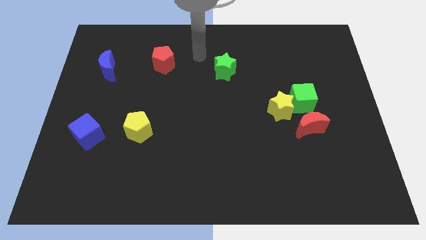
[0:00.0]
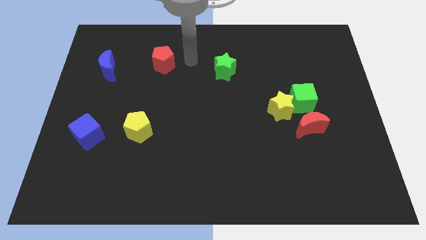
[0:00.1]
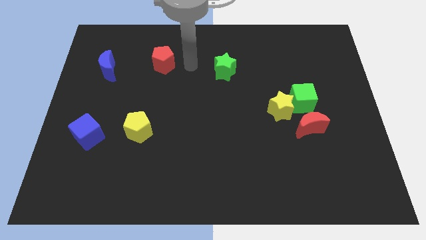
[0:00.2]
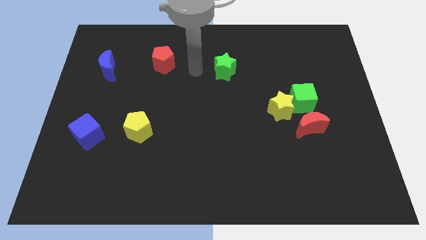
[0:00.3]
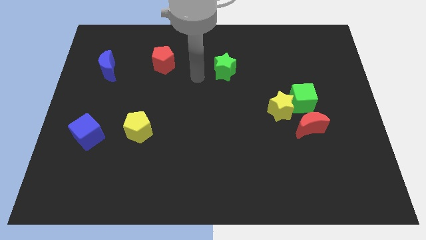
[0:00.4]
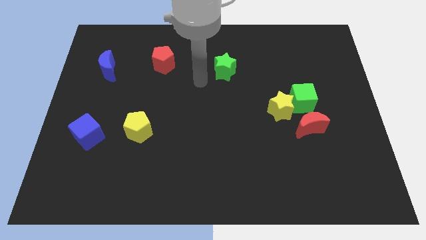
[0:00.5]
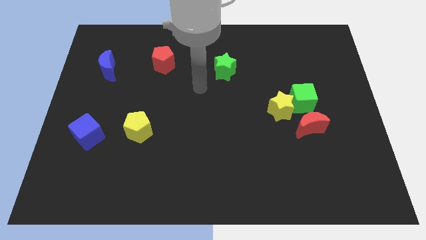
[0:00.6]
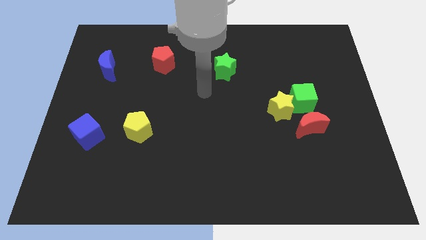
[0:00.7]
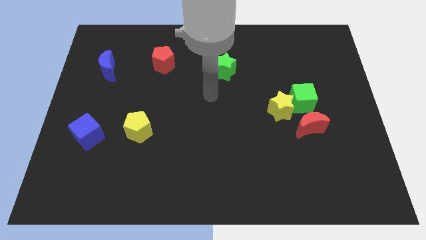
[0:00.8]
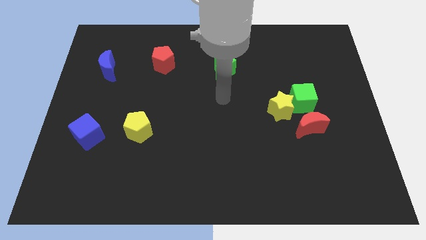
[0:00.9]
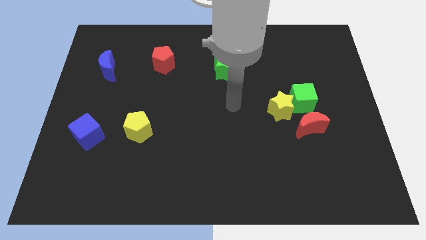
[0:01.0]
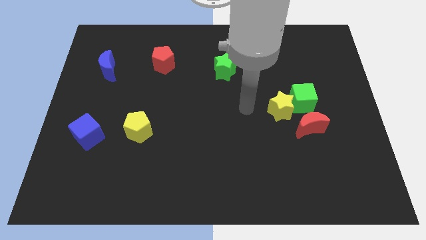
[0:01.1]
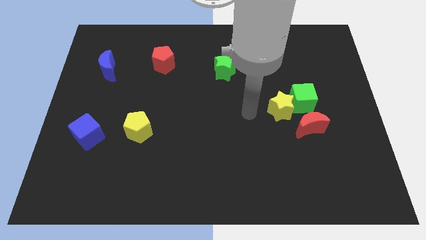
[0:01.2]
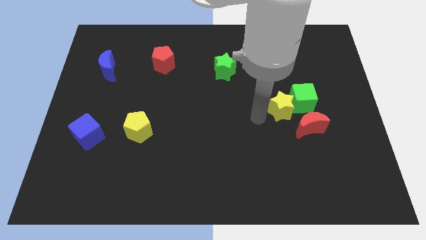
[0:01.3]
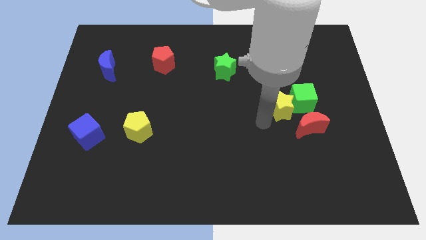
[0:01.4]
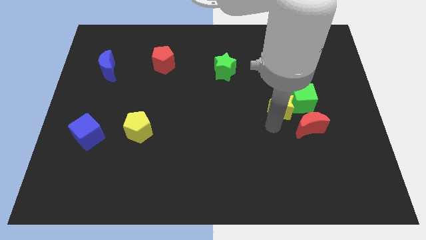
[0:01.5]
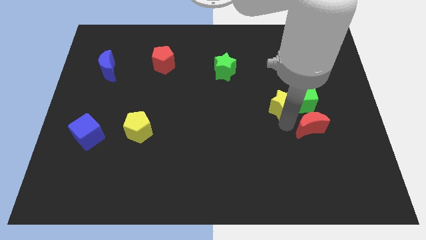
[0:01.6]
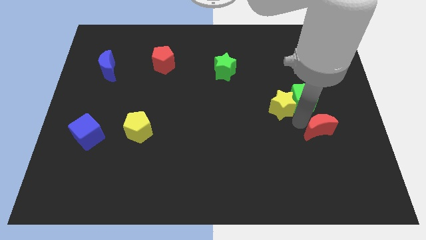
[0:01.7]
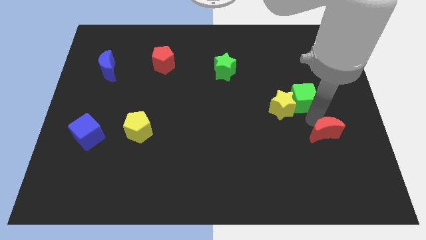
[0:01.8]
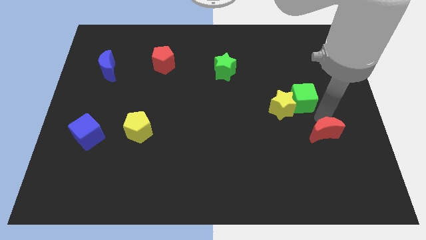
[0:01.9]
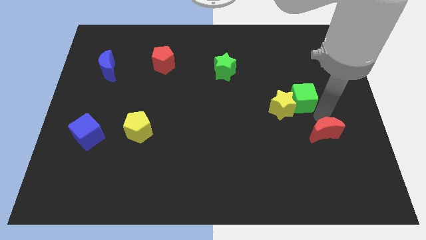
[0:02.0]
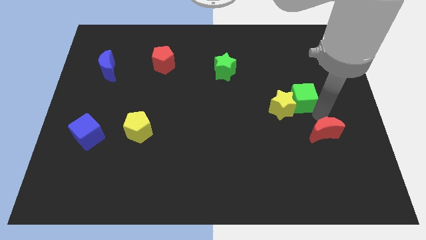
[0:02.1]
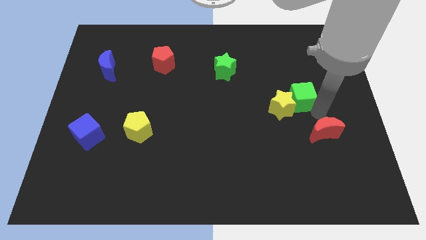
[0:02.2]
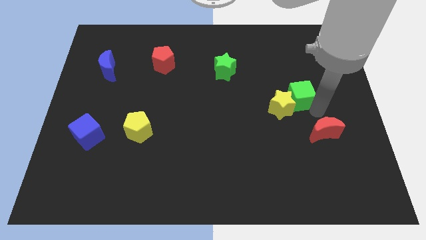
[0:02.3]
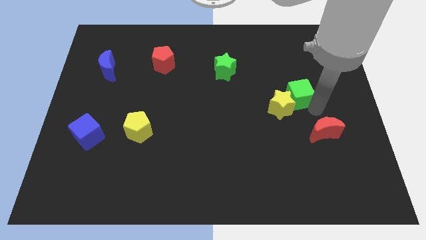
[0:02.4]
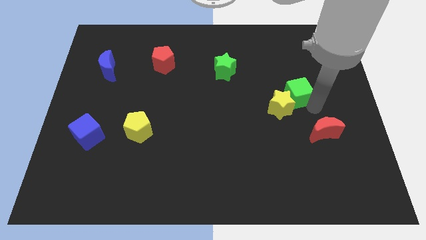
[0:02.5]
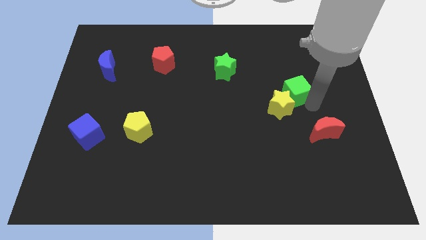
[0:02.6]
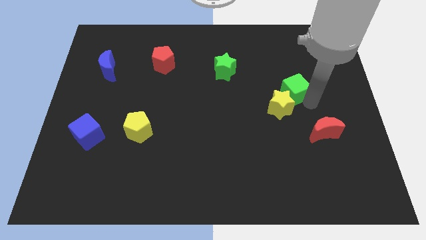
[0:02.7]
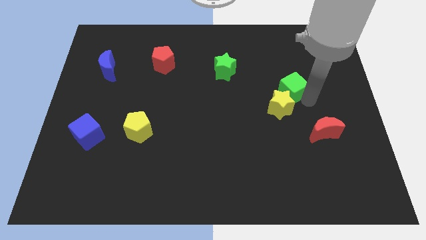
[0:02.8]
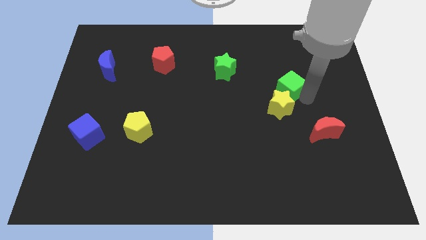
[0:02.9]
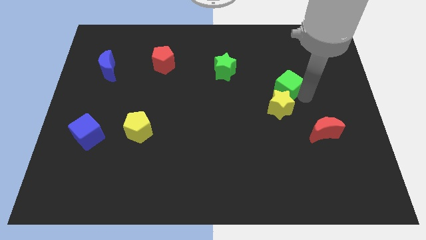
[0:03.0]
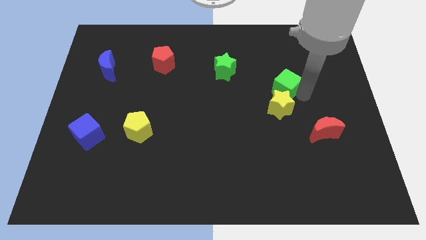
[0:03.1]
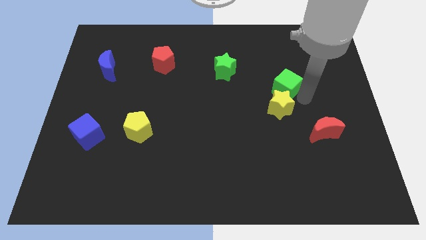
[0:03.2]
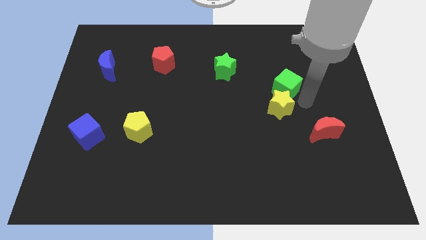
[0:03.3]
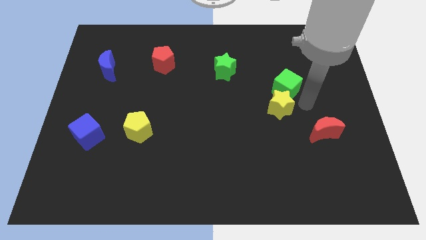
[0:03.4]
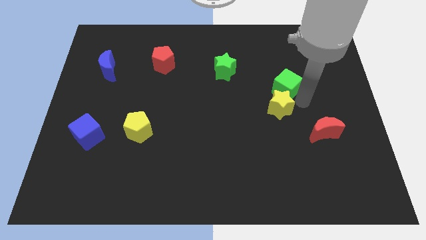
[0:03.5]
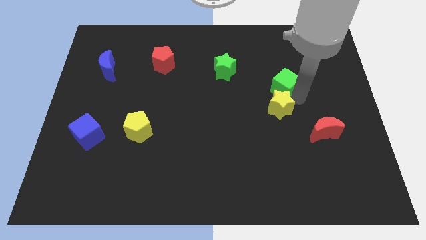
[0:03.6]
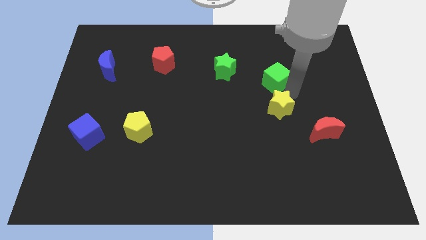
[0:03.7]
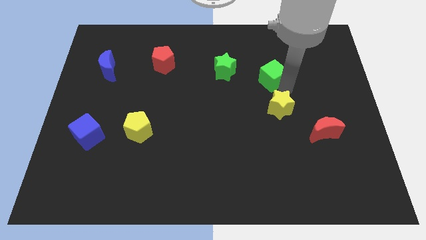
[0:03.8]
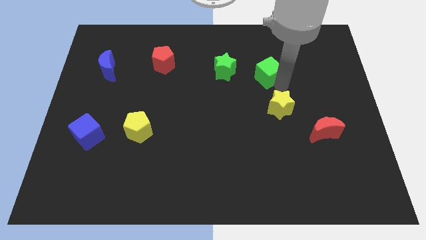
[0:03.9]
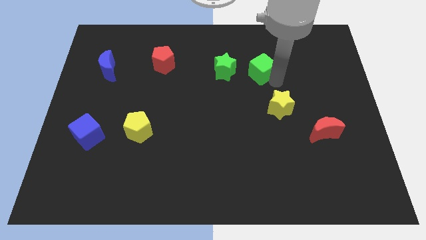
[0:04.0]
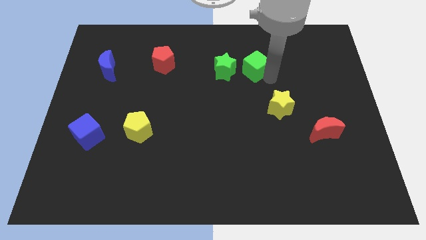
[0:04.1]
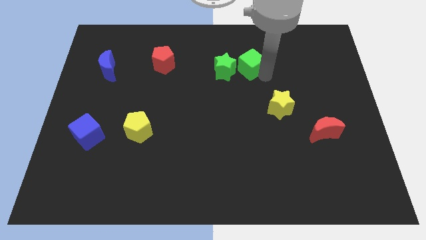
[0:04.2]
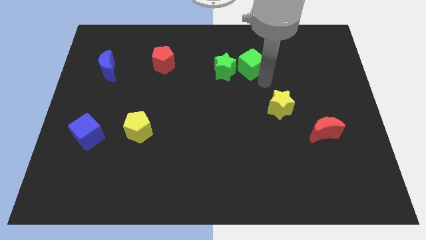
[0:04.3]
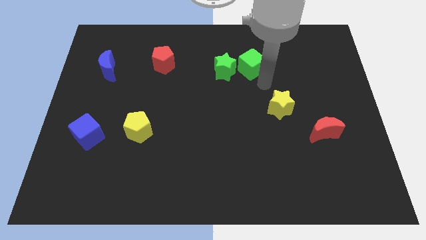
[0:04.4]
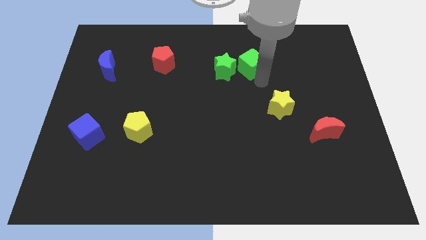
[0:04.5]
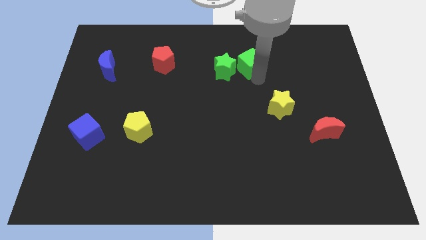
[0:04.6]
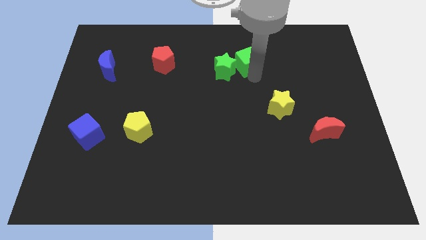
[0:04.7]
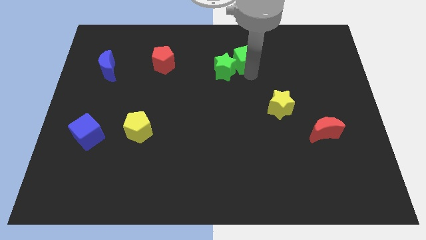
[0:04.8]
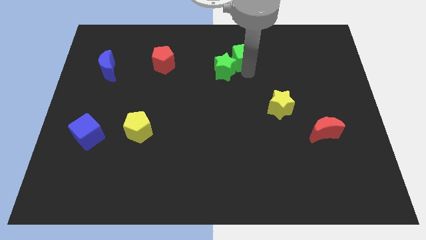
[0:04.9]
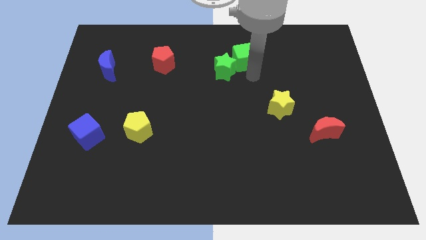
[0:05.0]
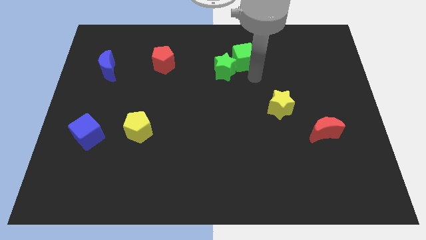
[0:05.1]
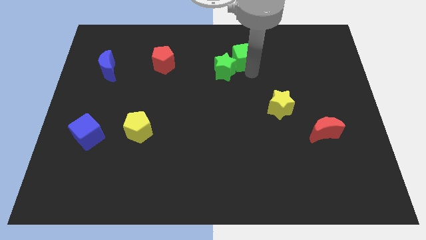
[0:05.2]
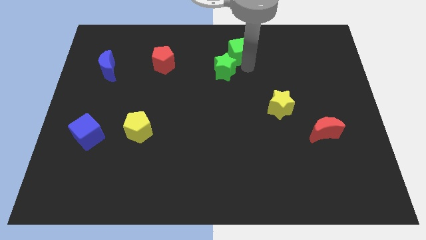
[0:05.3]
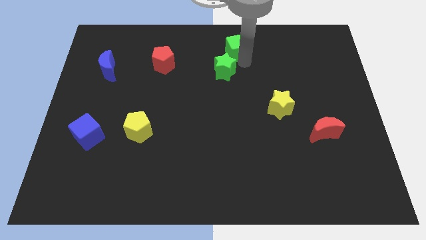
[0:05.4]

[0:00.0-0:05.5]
push the green cube to the top

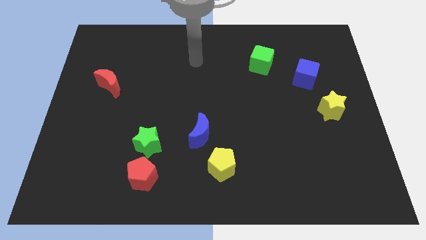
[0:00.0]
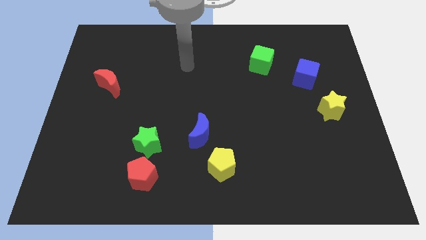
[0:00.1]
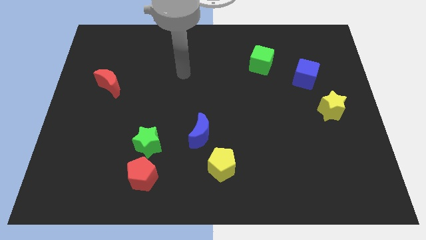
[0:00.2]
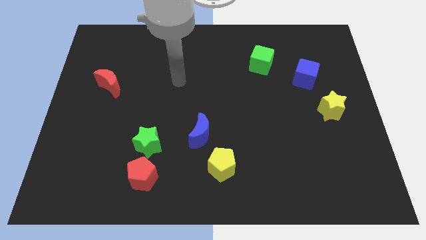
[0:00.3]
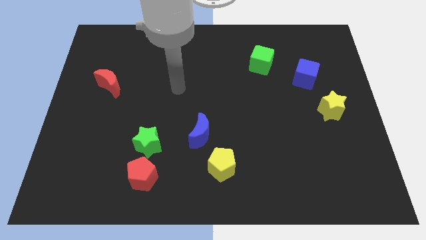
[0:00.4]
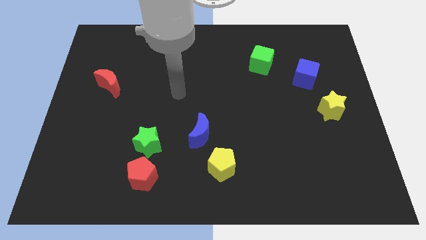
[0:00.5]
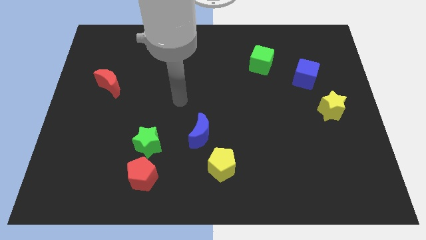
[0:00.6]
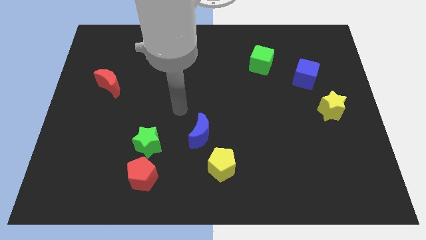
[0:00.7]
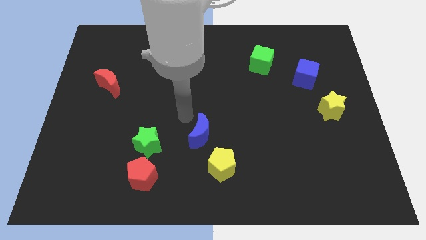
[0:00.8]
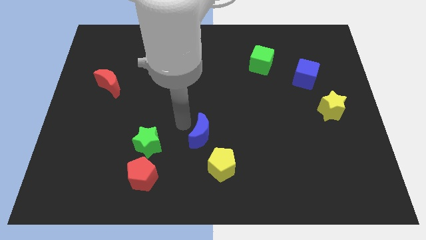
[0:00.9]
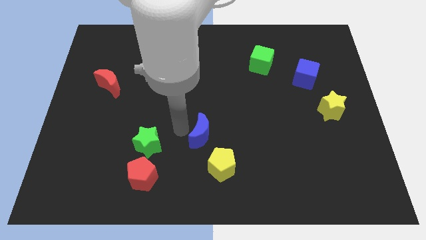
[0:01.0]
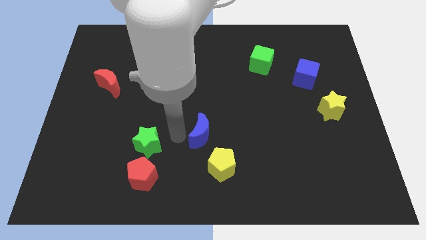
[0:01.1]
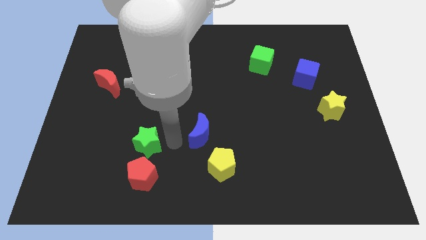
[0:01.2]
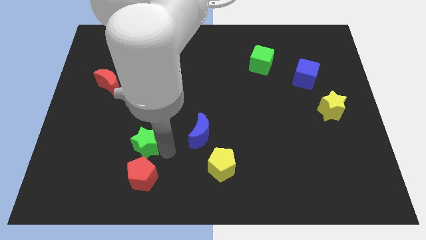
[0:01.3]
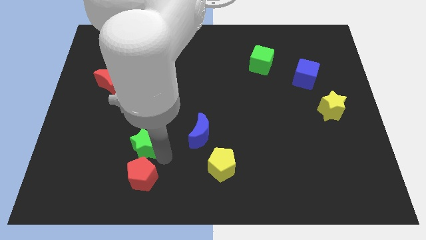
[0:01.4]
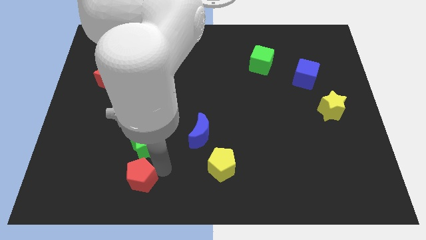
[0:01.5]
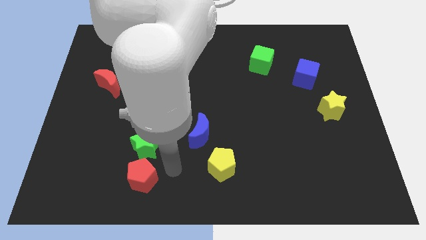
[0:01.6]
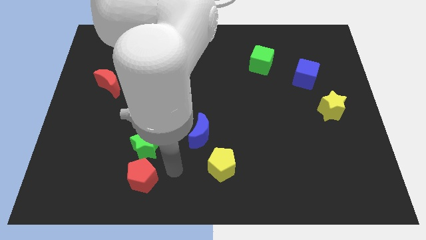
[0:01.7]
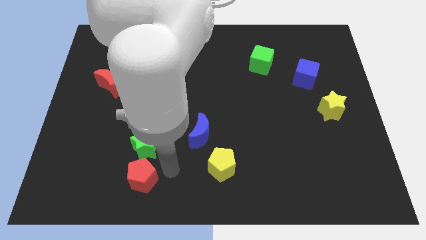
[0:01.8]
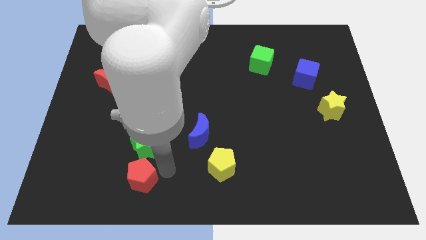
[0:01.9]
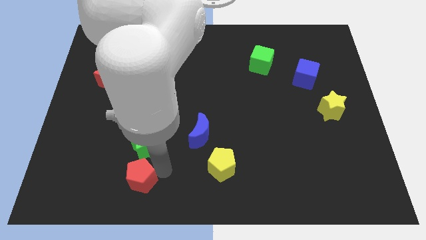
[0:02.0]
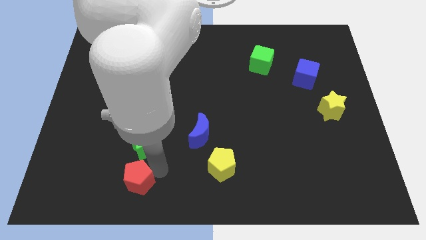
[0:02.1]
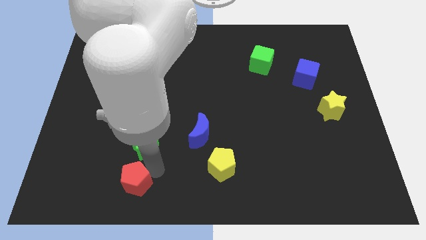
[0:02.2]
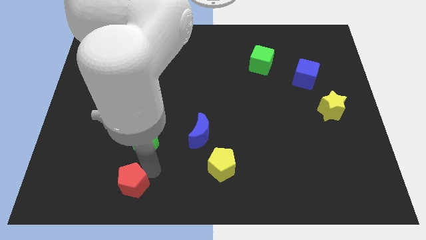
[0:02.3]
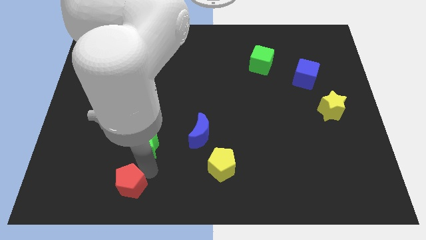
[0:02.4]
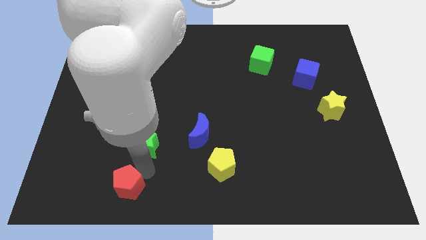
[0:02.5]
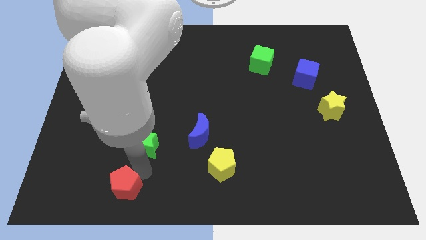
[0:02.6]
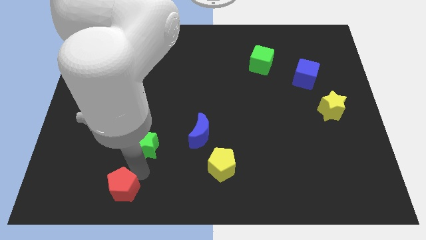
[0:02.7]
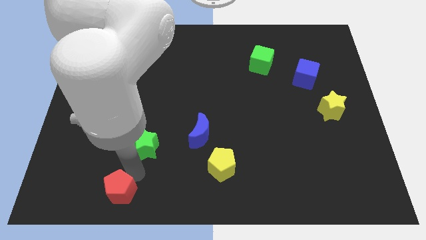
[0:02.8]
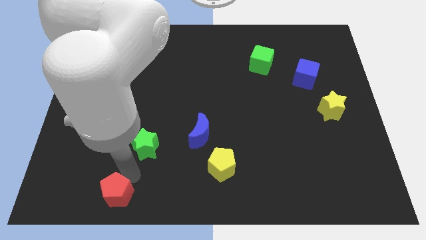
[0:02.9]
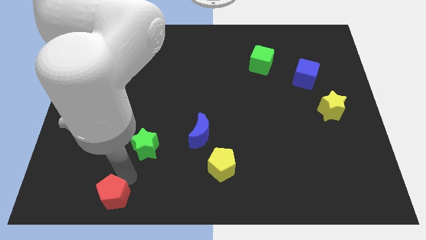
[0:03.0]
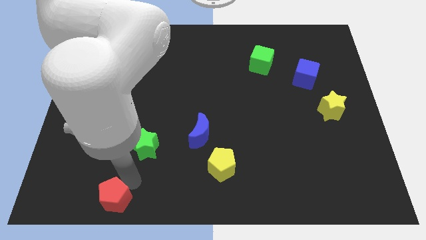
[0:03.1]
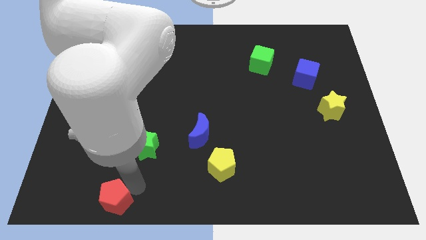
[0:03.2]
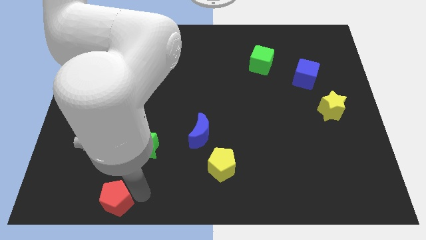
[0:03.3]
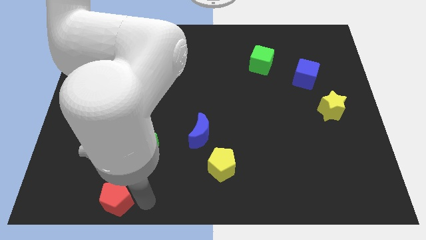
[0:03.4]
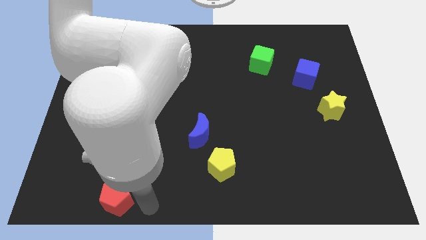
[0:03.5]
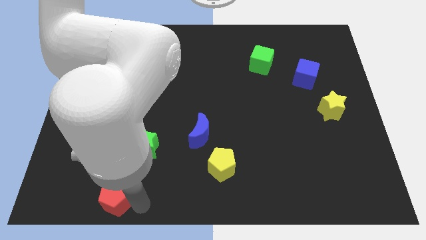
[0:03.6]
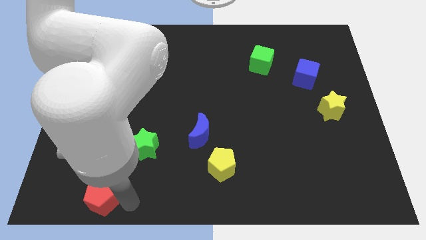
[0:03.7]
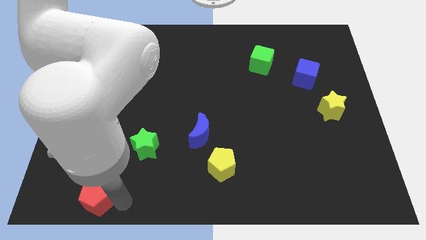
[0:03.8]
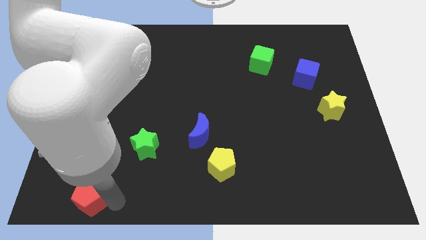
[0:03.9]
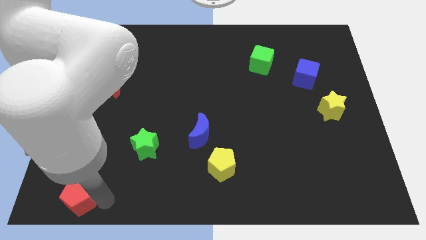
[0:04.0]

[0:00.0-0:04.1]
slide the red pentagon to the bottom left corner
